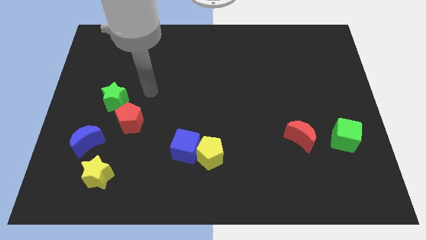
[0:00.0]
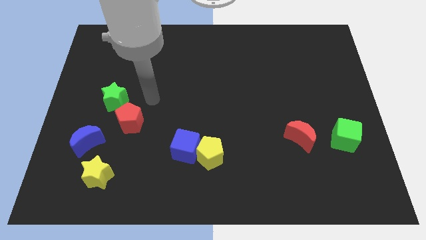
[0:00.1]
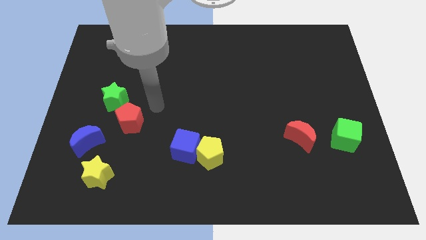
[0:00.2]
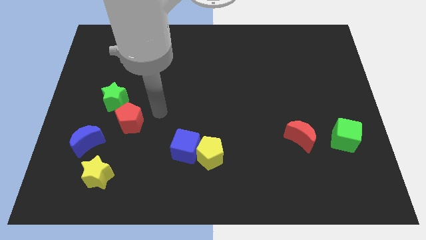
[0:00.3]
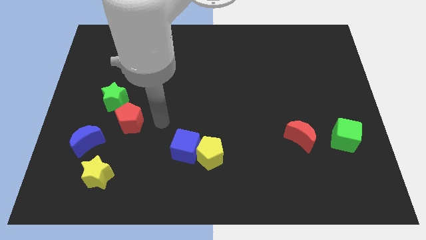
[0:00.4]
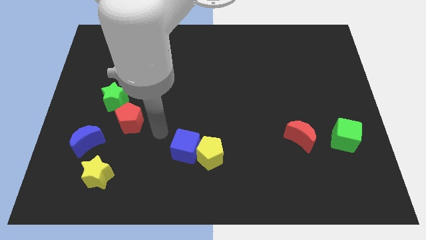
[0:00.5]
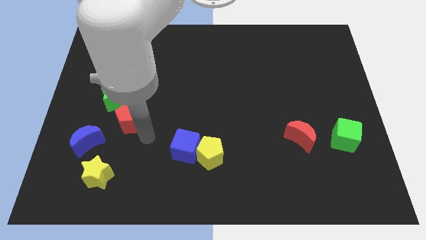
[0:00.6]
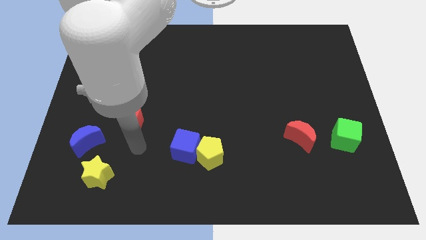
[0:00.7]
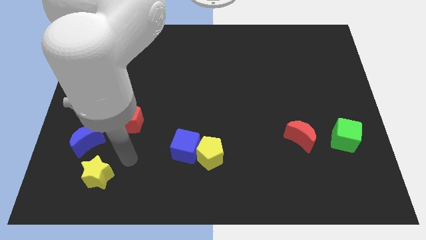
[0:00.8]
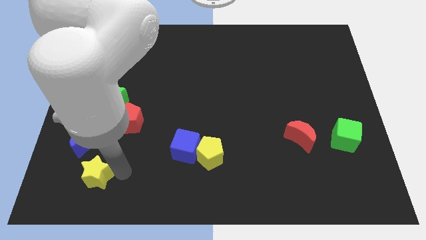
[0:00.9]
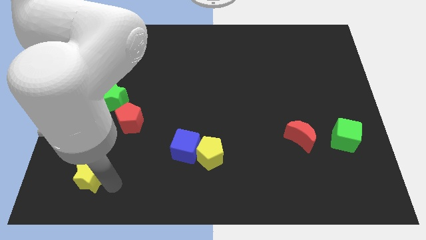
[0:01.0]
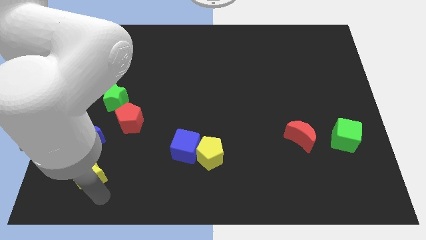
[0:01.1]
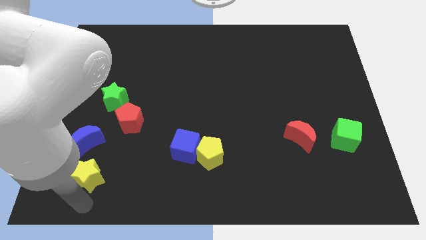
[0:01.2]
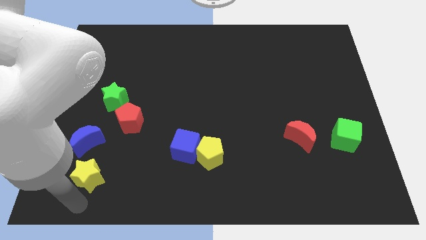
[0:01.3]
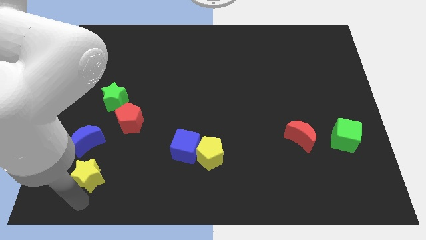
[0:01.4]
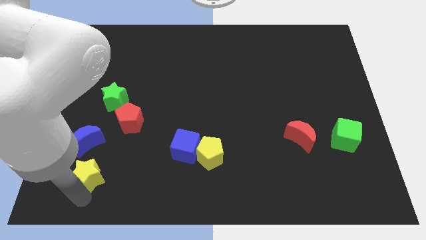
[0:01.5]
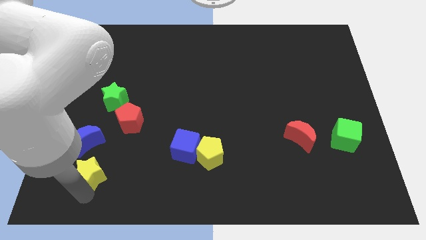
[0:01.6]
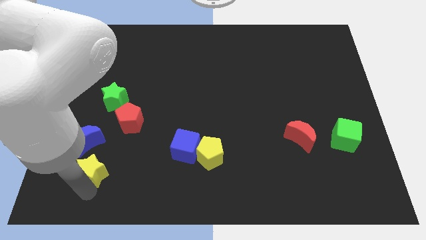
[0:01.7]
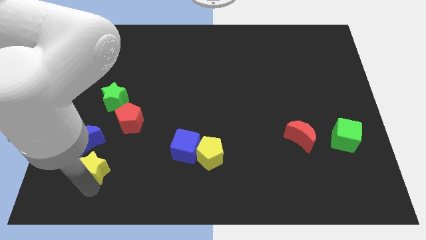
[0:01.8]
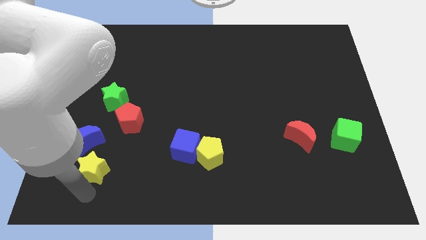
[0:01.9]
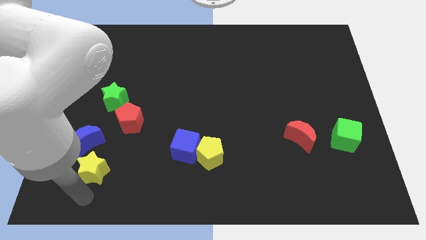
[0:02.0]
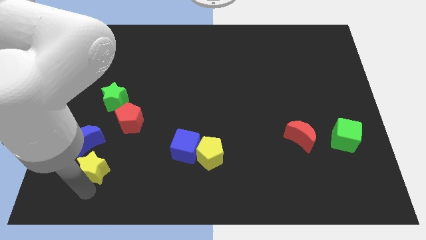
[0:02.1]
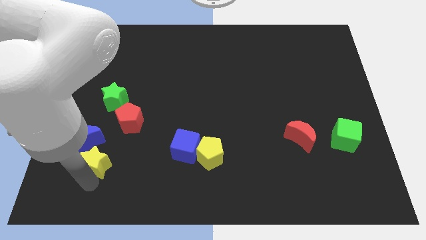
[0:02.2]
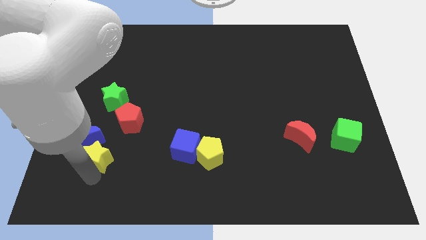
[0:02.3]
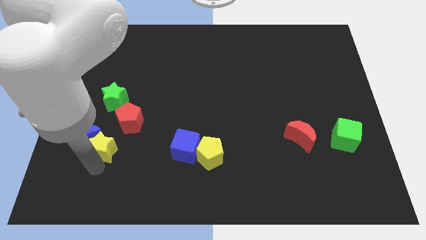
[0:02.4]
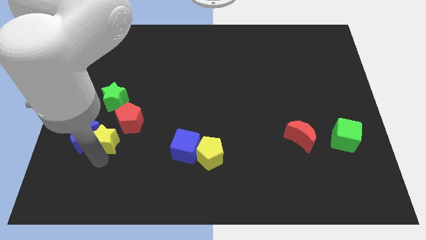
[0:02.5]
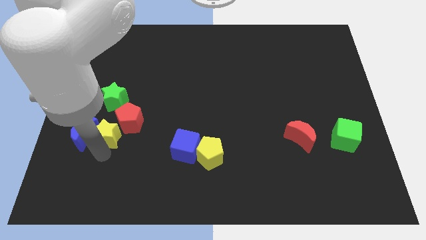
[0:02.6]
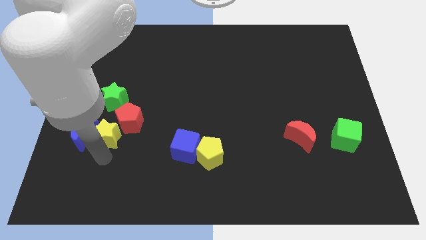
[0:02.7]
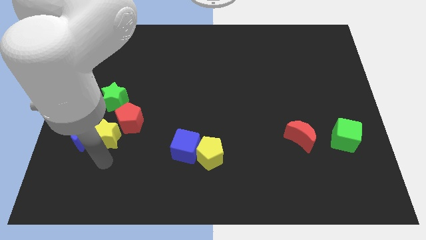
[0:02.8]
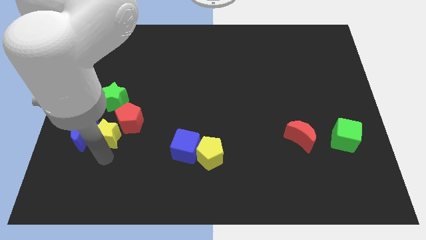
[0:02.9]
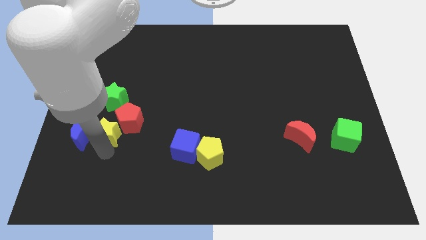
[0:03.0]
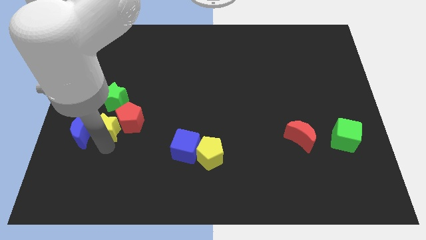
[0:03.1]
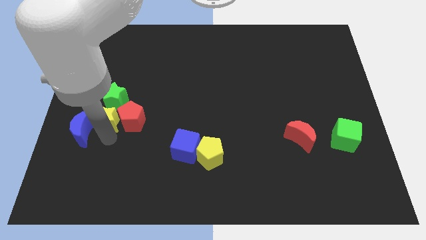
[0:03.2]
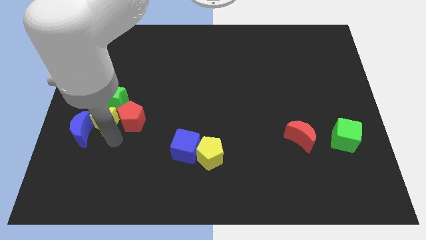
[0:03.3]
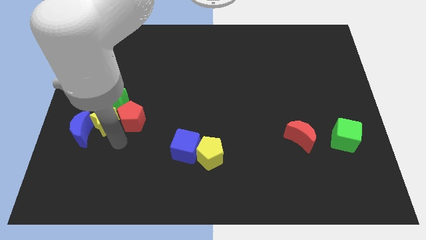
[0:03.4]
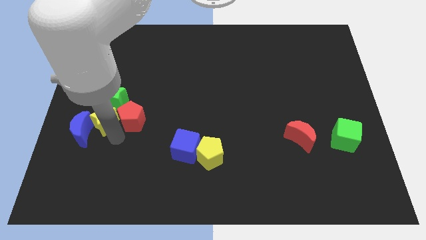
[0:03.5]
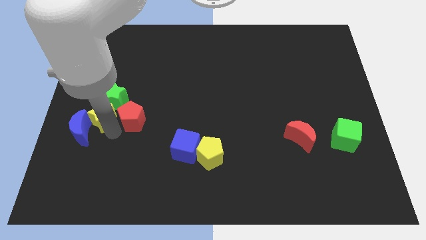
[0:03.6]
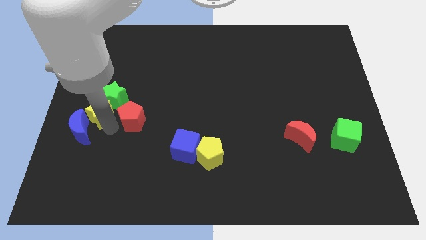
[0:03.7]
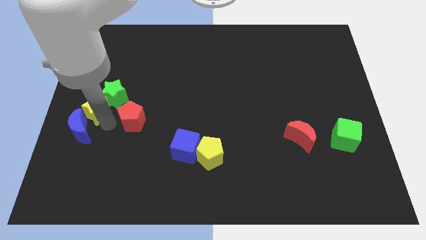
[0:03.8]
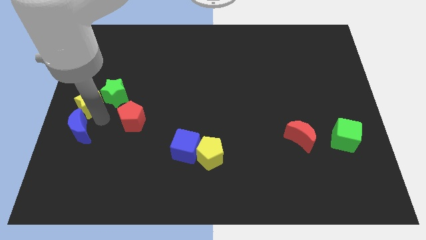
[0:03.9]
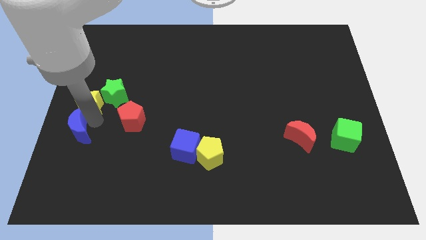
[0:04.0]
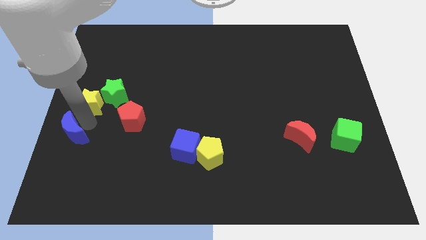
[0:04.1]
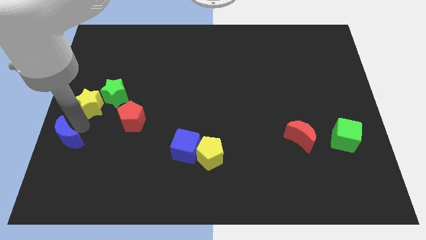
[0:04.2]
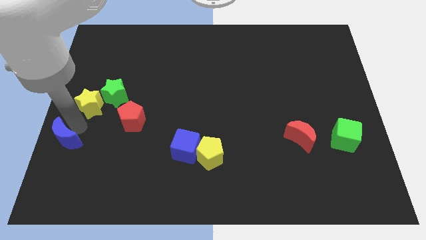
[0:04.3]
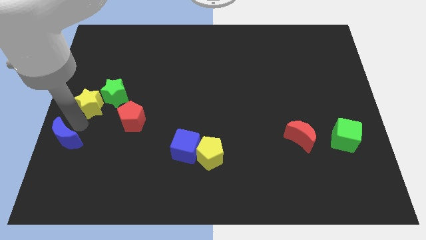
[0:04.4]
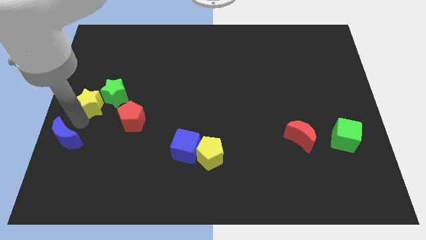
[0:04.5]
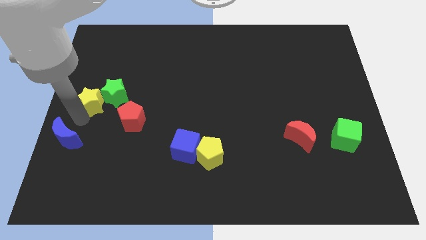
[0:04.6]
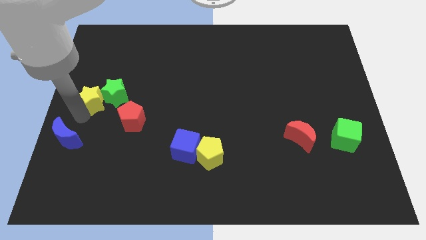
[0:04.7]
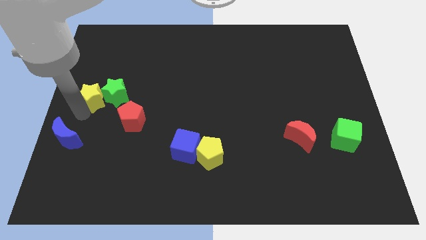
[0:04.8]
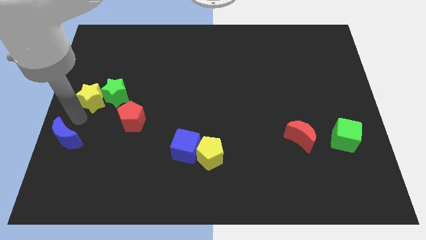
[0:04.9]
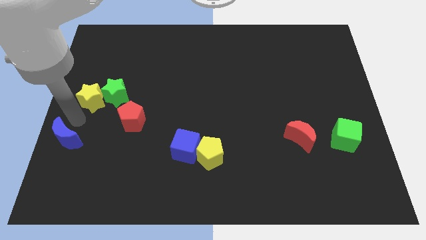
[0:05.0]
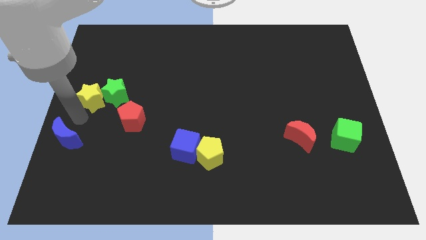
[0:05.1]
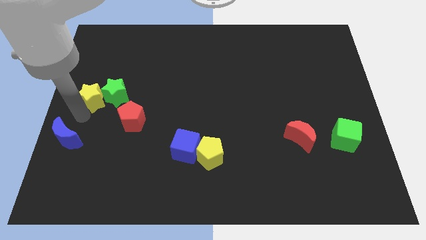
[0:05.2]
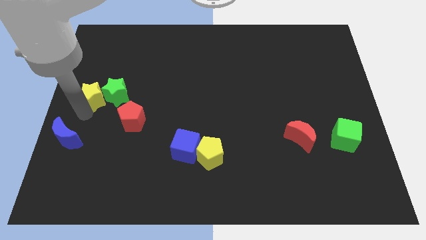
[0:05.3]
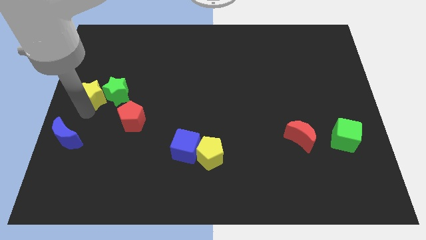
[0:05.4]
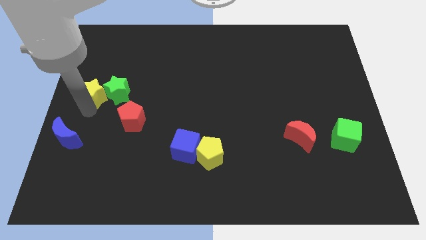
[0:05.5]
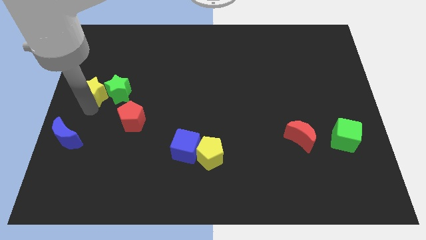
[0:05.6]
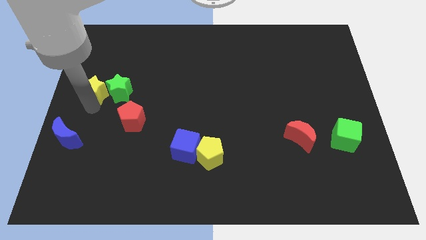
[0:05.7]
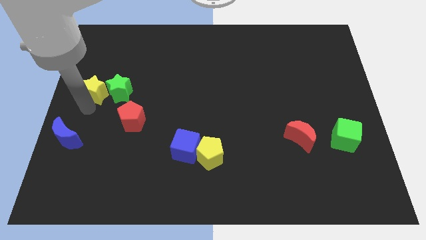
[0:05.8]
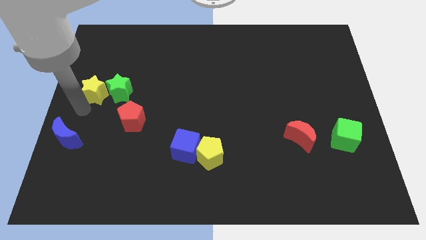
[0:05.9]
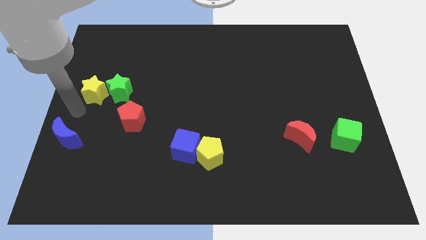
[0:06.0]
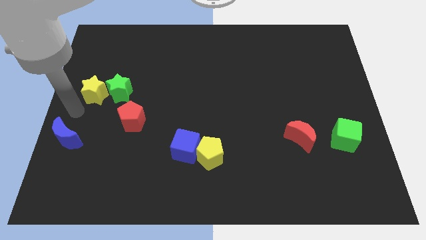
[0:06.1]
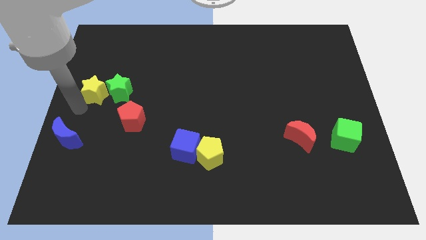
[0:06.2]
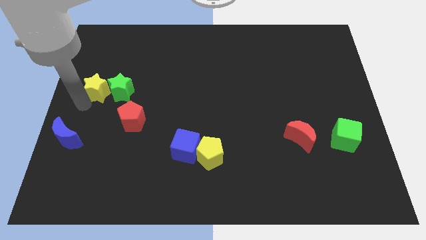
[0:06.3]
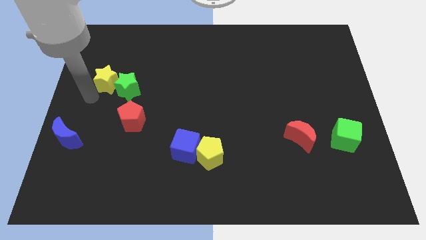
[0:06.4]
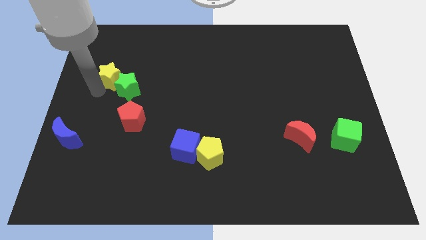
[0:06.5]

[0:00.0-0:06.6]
move the yellow star to the top of the green star
